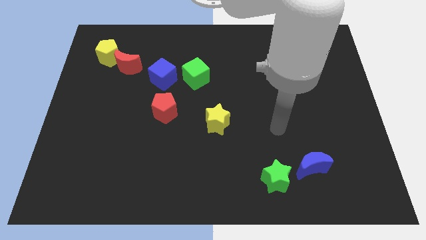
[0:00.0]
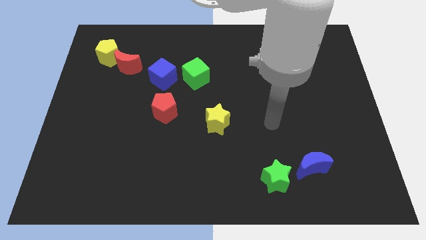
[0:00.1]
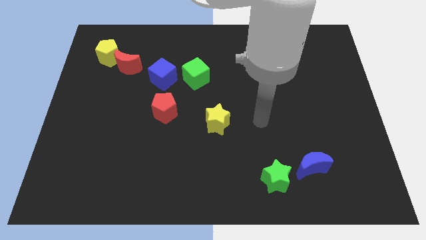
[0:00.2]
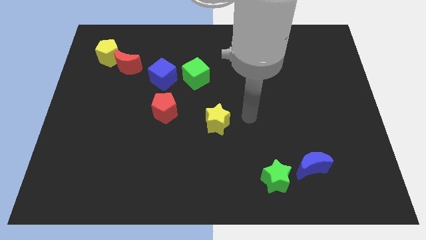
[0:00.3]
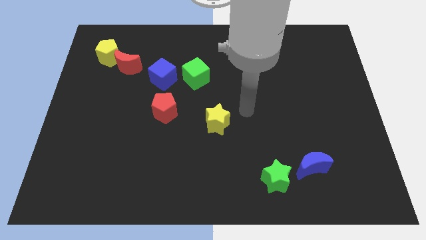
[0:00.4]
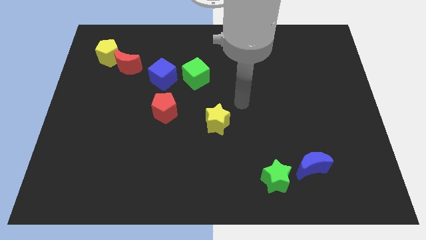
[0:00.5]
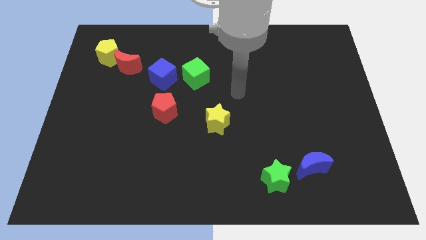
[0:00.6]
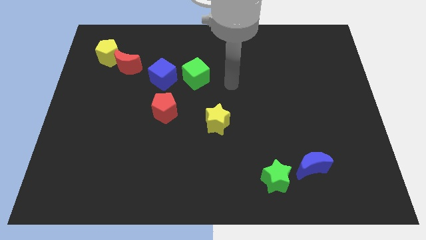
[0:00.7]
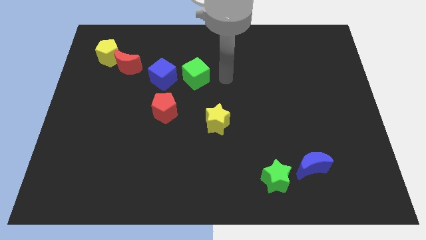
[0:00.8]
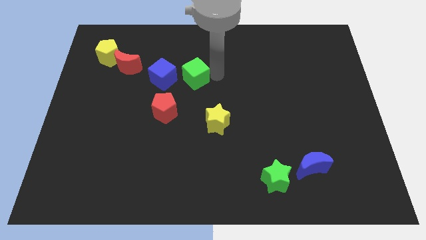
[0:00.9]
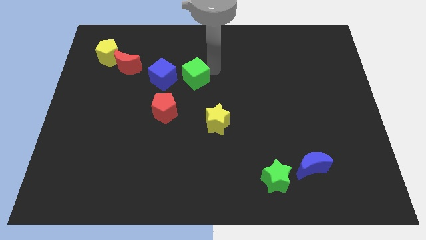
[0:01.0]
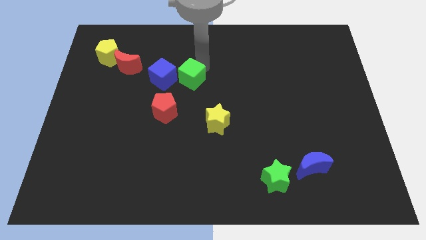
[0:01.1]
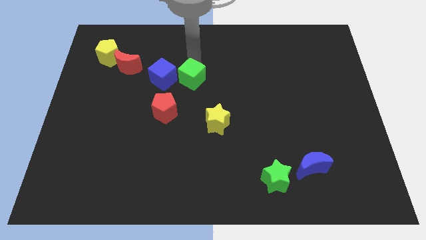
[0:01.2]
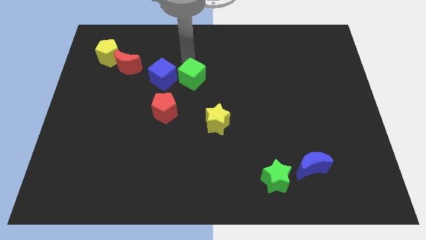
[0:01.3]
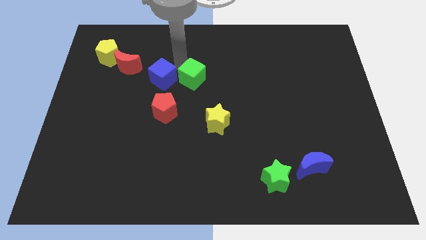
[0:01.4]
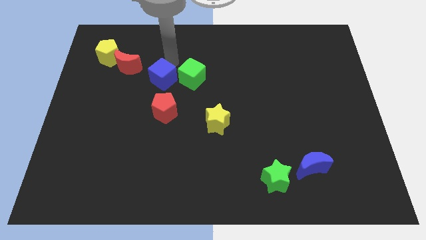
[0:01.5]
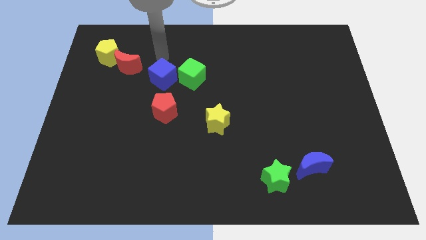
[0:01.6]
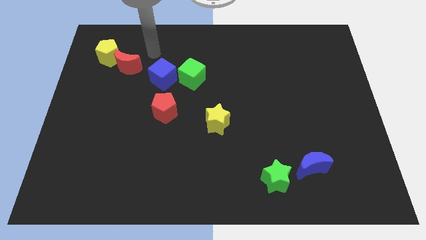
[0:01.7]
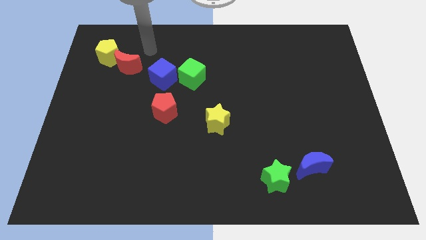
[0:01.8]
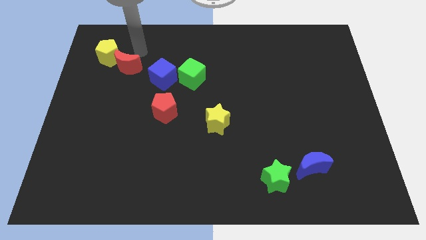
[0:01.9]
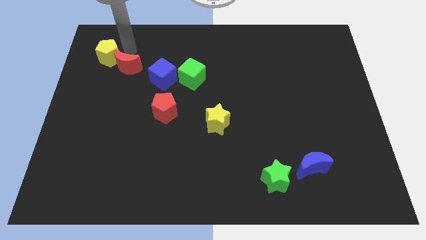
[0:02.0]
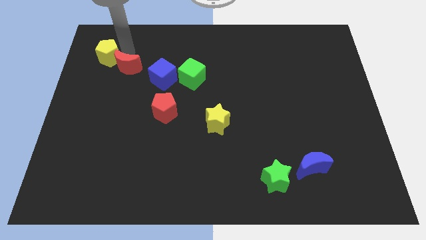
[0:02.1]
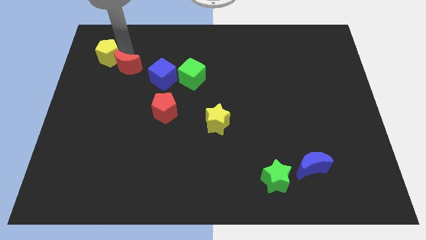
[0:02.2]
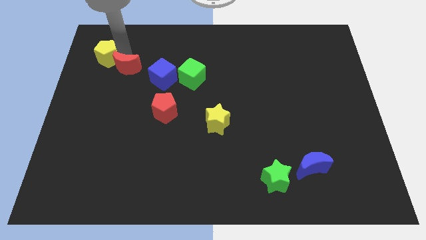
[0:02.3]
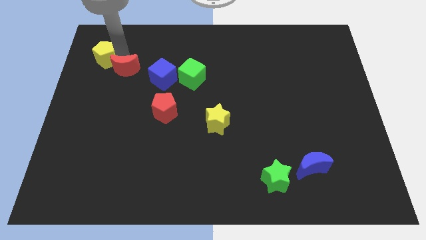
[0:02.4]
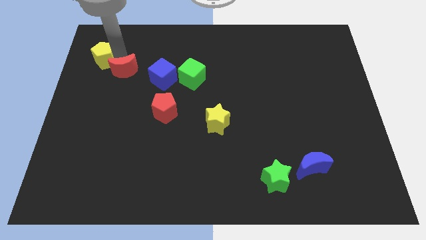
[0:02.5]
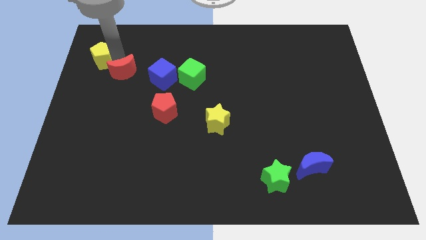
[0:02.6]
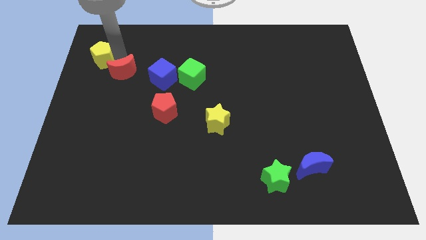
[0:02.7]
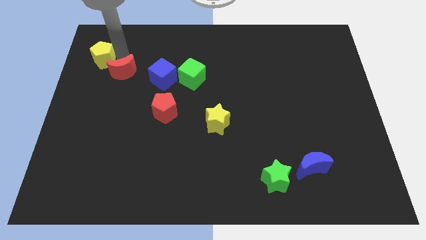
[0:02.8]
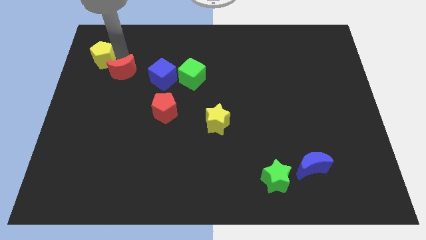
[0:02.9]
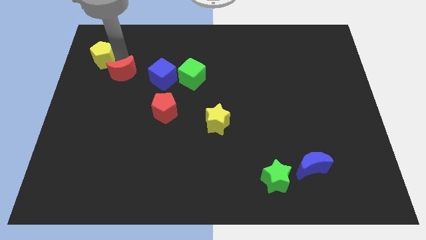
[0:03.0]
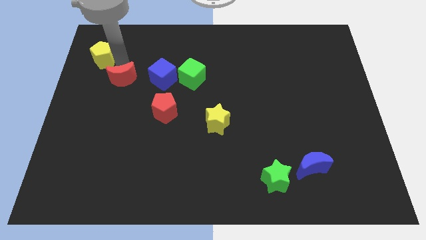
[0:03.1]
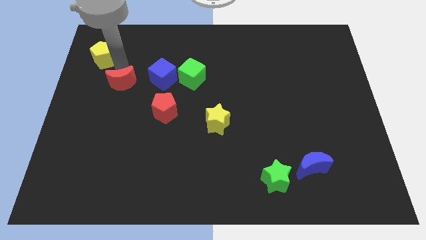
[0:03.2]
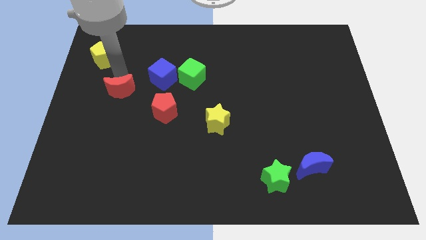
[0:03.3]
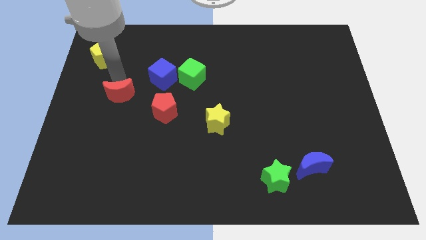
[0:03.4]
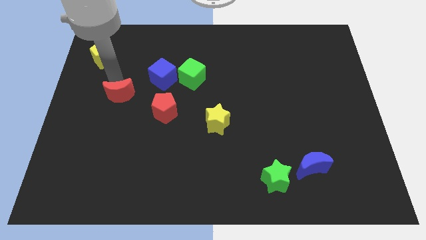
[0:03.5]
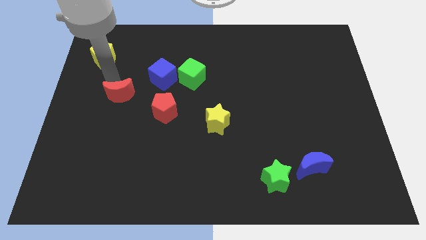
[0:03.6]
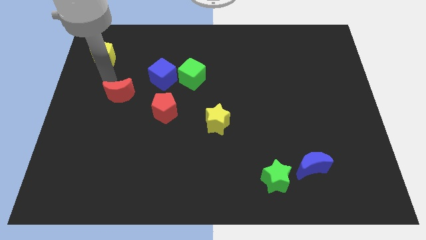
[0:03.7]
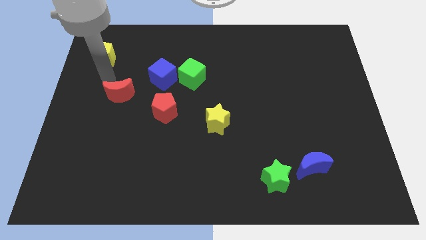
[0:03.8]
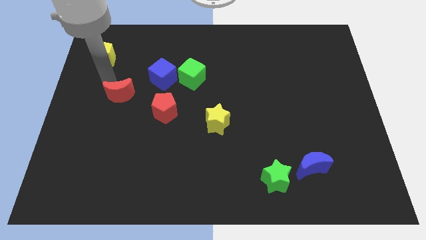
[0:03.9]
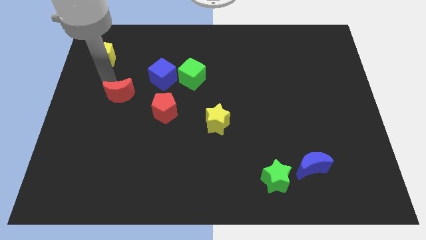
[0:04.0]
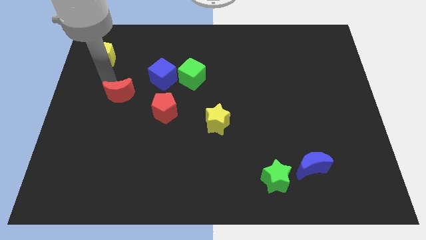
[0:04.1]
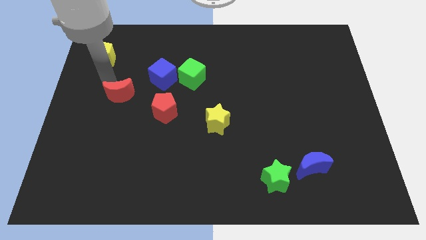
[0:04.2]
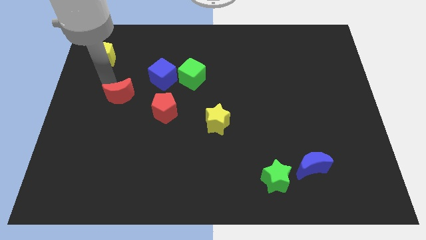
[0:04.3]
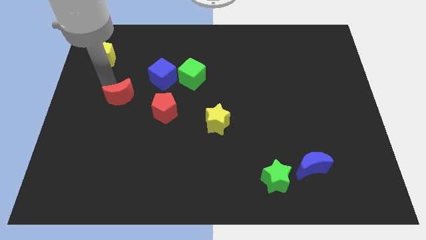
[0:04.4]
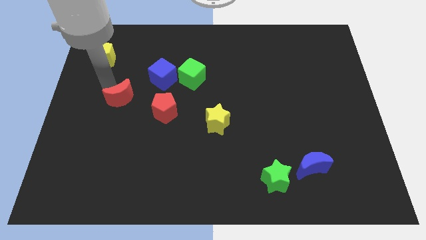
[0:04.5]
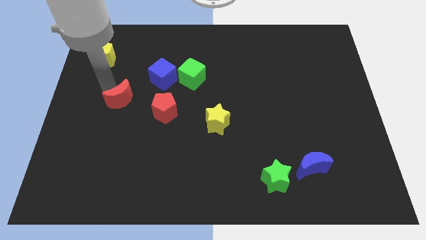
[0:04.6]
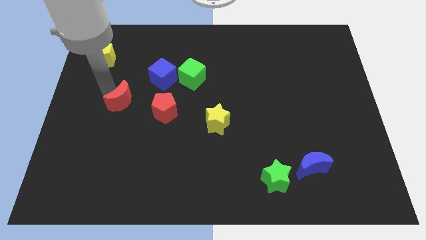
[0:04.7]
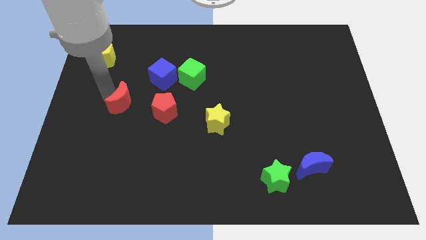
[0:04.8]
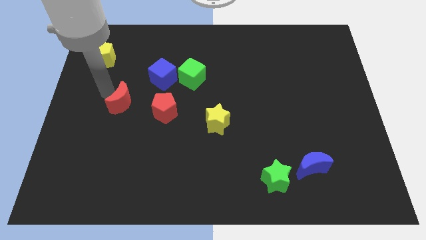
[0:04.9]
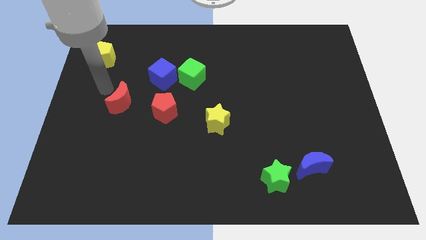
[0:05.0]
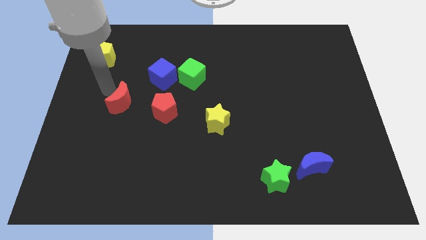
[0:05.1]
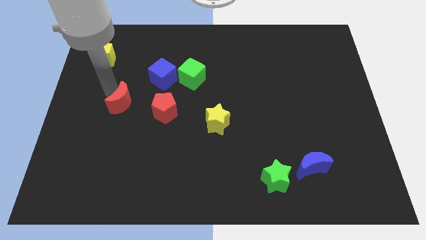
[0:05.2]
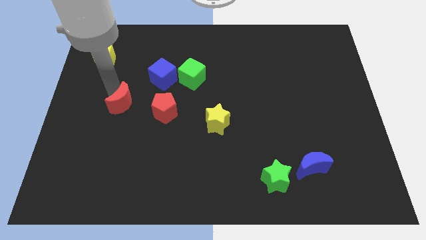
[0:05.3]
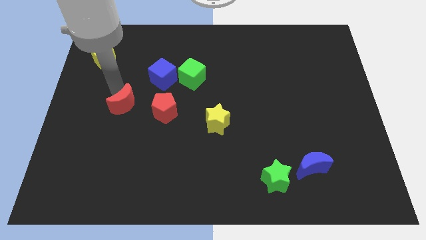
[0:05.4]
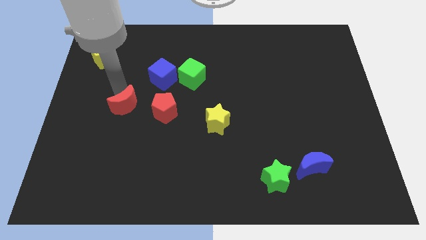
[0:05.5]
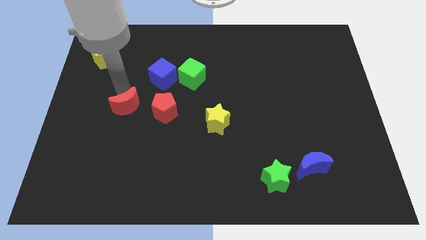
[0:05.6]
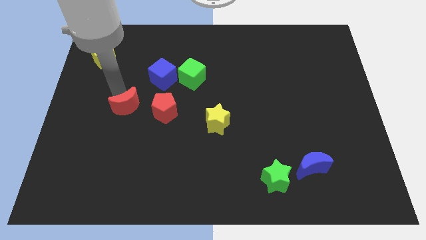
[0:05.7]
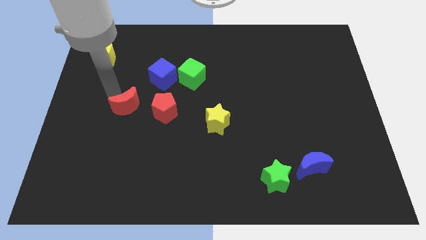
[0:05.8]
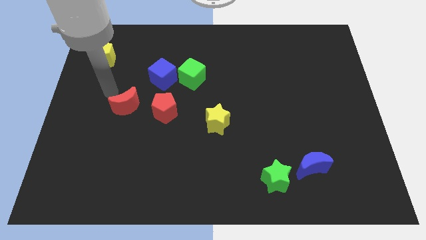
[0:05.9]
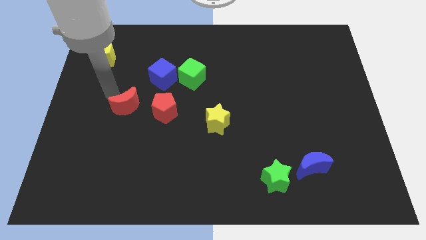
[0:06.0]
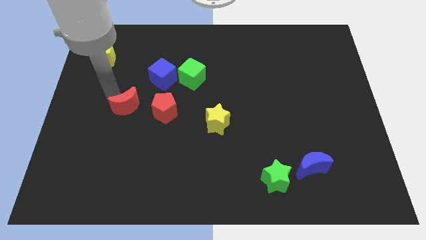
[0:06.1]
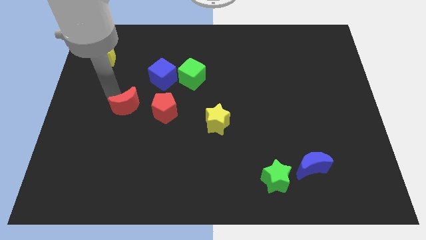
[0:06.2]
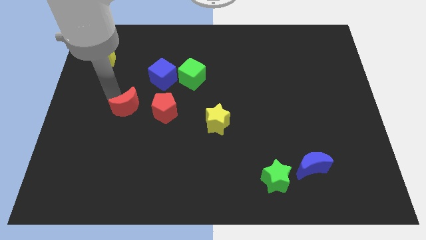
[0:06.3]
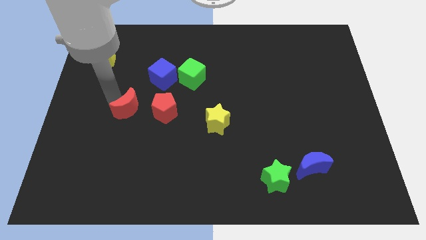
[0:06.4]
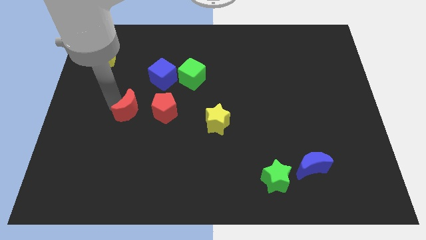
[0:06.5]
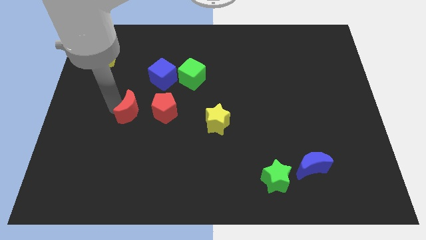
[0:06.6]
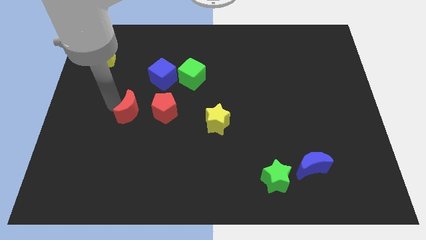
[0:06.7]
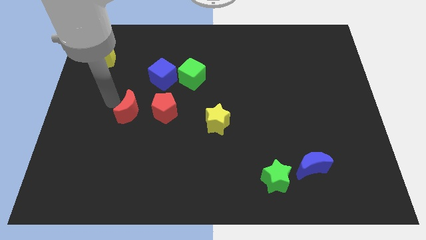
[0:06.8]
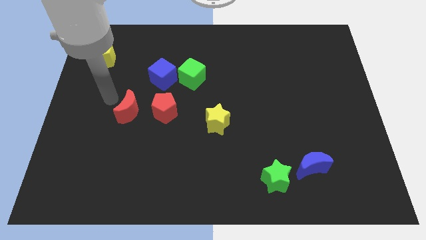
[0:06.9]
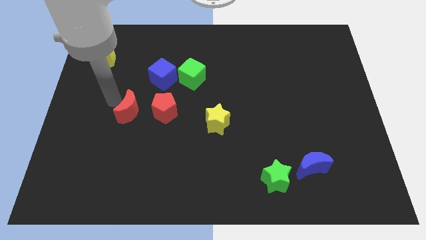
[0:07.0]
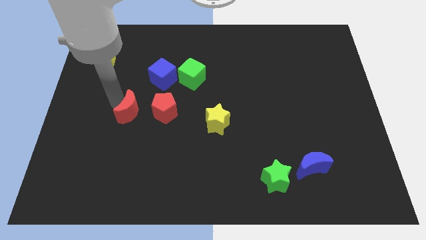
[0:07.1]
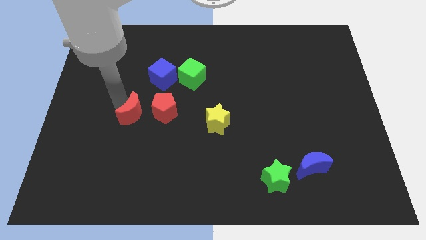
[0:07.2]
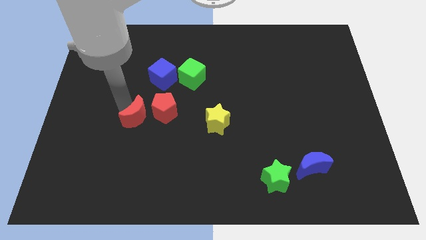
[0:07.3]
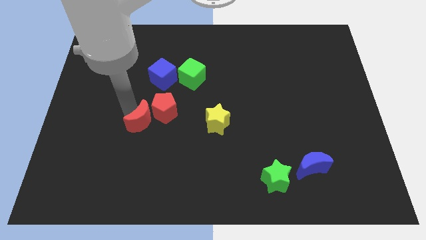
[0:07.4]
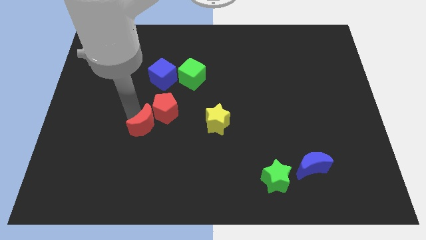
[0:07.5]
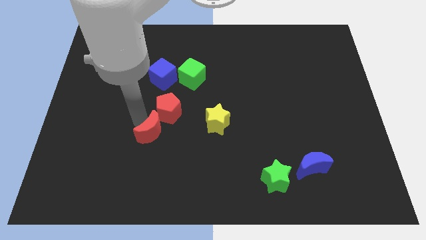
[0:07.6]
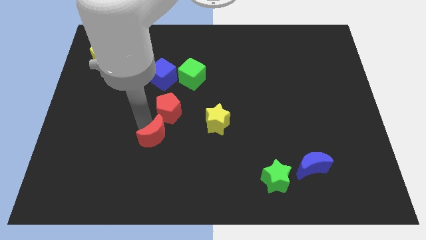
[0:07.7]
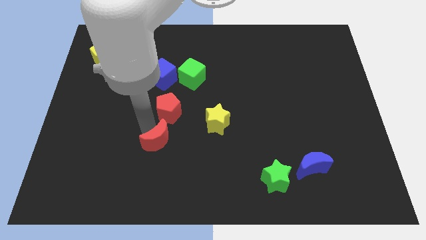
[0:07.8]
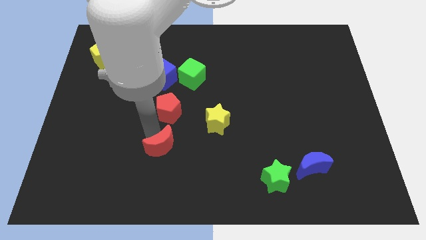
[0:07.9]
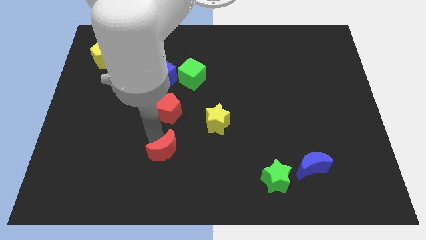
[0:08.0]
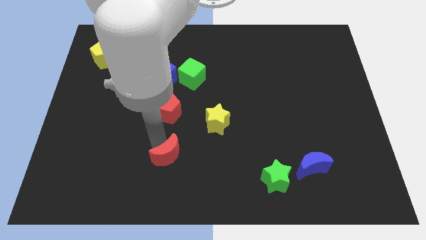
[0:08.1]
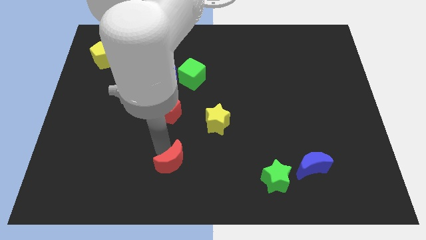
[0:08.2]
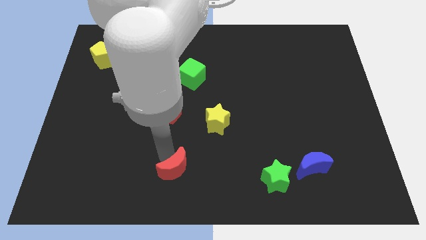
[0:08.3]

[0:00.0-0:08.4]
move the red moon to the bottom side
